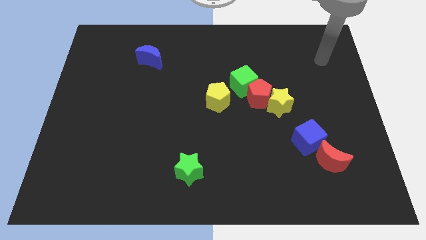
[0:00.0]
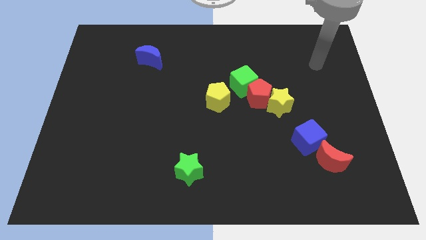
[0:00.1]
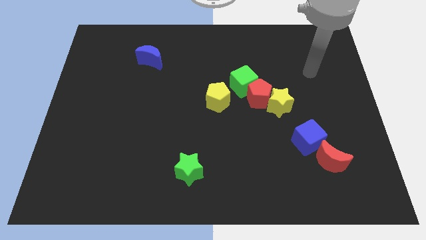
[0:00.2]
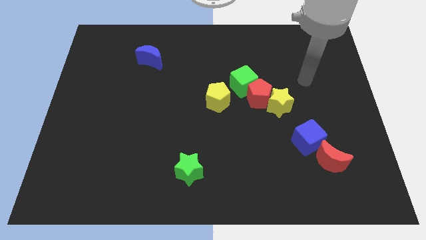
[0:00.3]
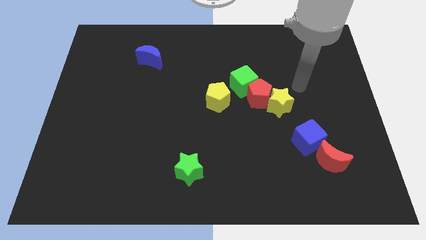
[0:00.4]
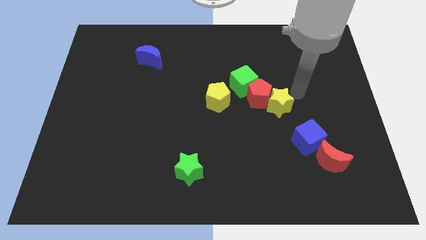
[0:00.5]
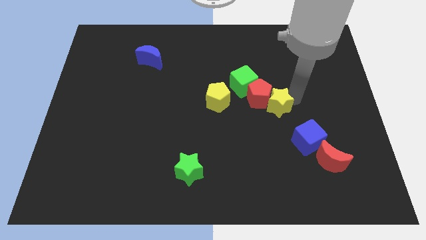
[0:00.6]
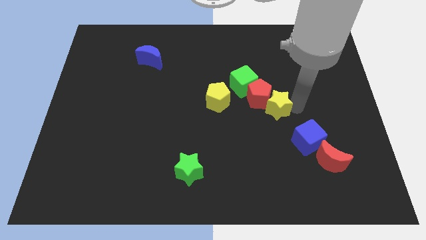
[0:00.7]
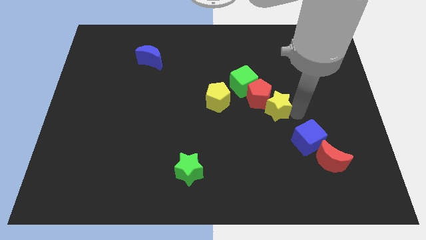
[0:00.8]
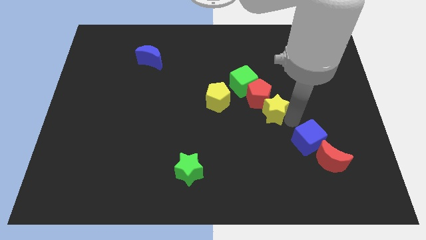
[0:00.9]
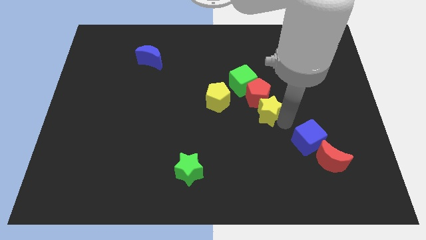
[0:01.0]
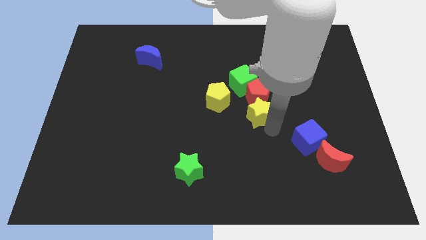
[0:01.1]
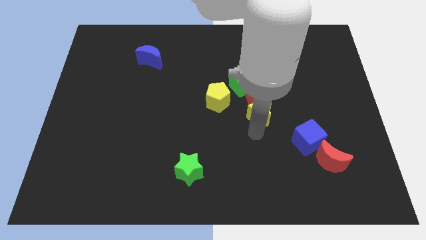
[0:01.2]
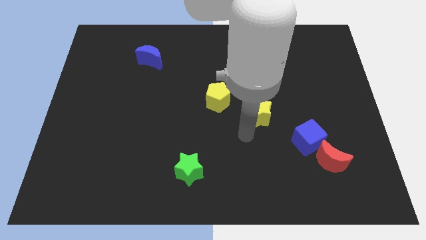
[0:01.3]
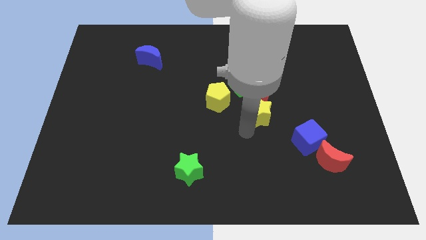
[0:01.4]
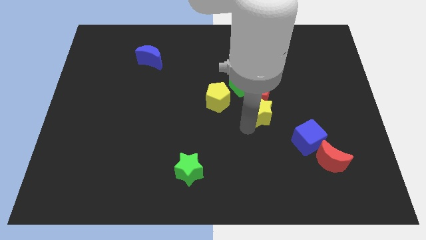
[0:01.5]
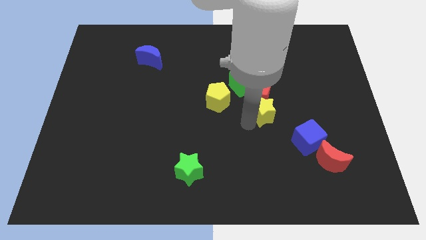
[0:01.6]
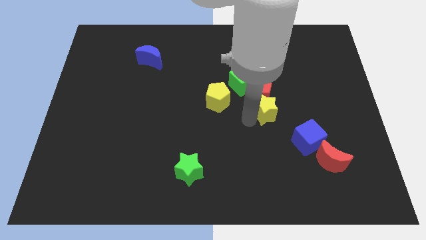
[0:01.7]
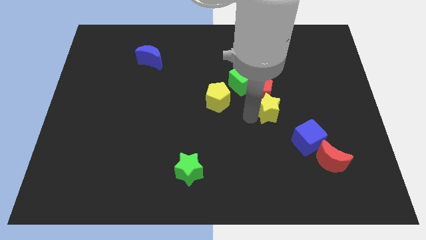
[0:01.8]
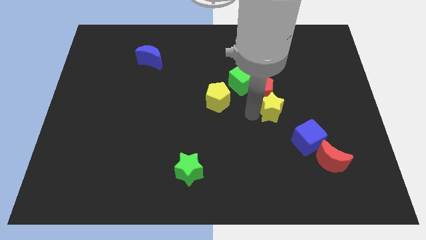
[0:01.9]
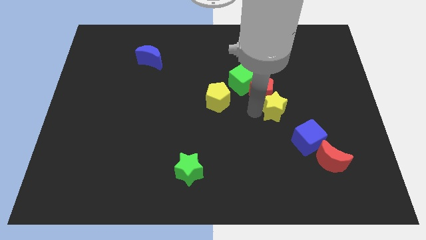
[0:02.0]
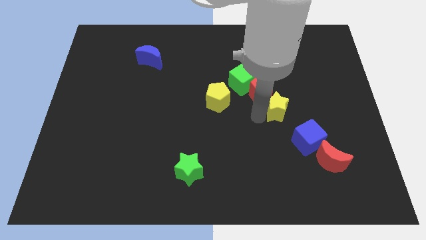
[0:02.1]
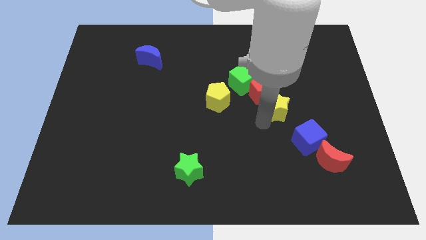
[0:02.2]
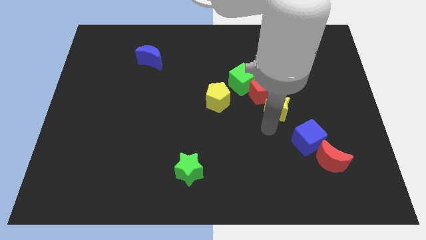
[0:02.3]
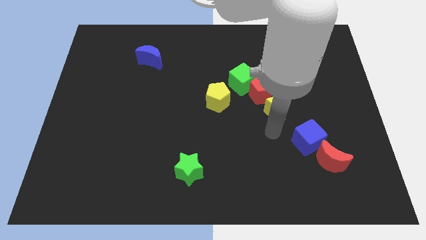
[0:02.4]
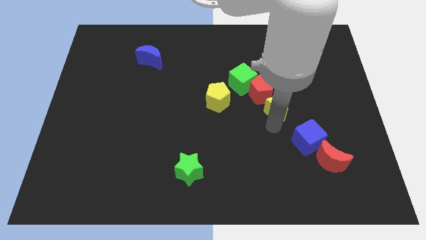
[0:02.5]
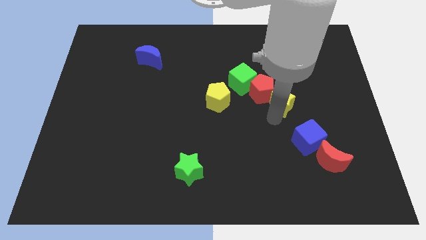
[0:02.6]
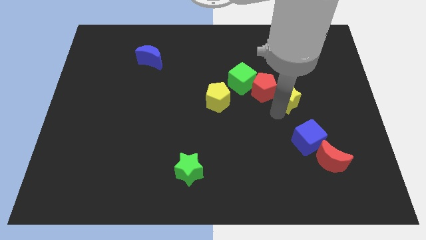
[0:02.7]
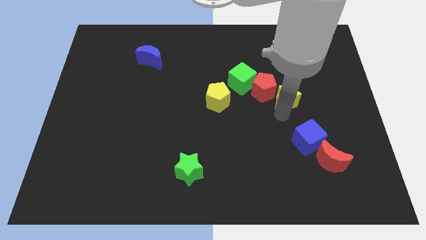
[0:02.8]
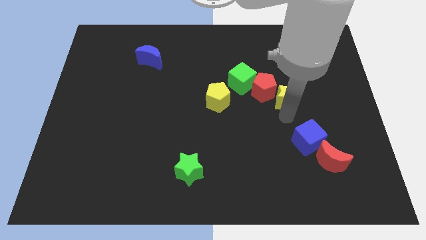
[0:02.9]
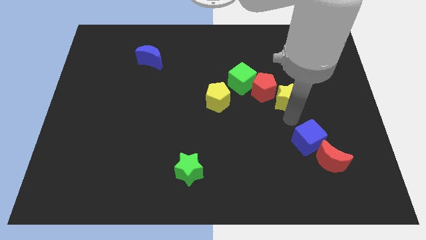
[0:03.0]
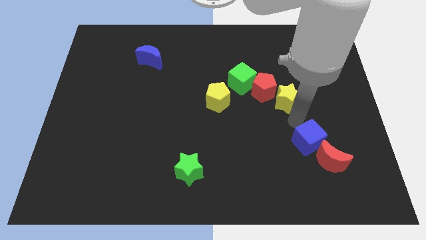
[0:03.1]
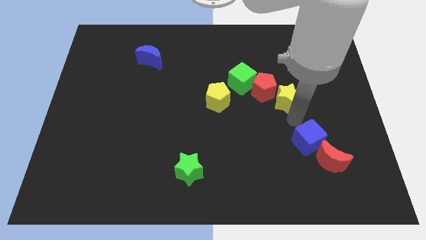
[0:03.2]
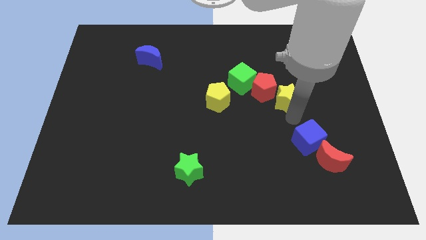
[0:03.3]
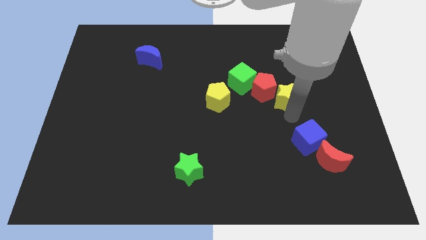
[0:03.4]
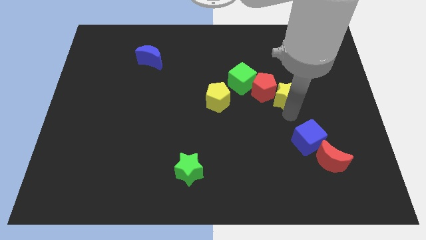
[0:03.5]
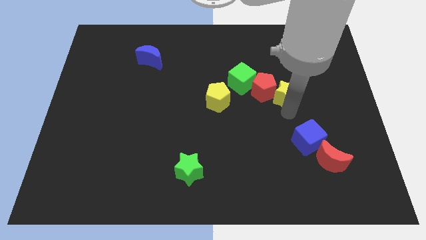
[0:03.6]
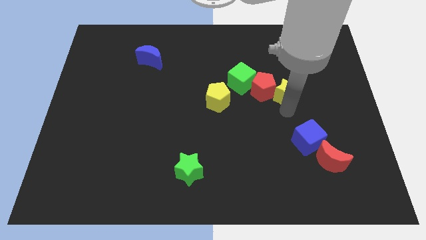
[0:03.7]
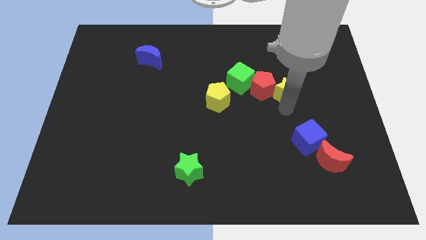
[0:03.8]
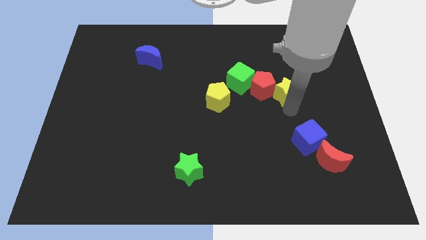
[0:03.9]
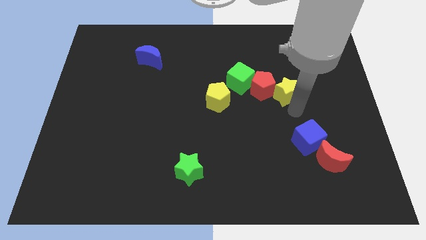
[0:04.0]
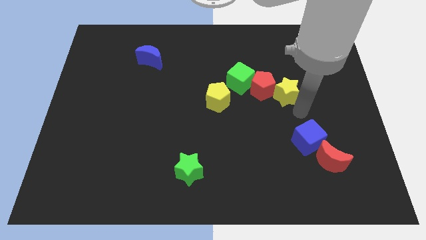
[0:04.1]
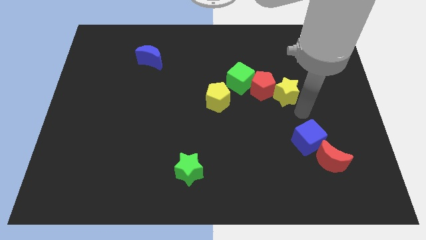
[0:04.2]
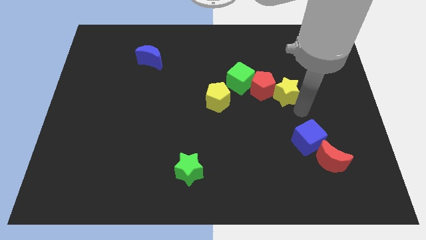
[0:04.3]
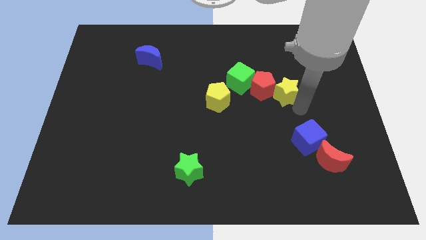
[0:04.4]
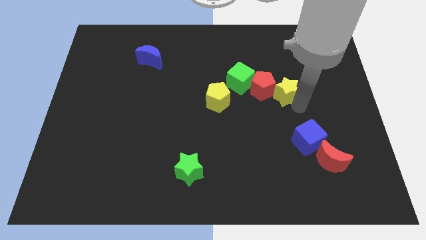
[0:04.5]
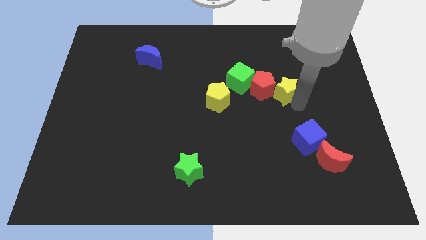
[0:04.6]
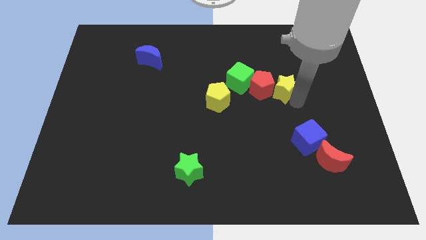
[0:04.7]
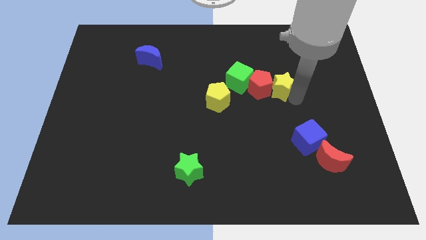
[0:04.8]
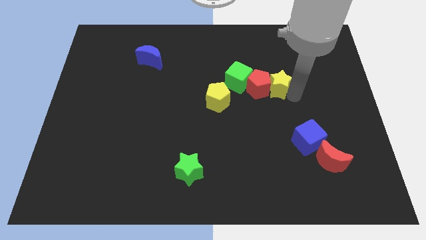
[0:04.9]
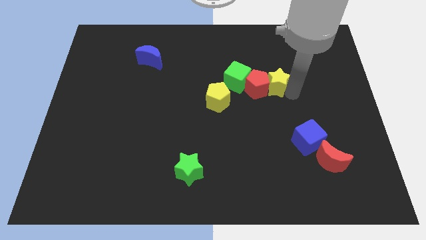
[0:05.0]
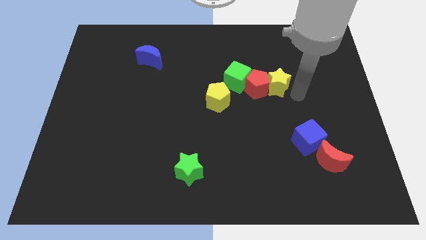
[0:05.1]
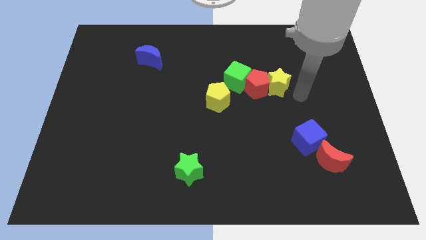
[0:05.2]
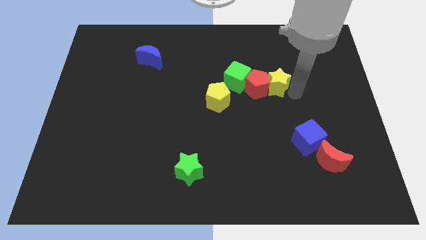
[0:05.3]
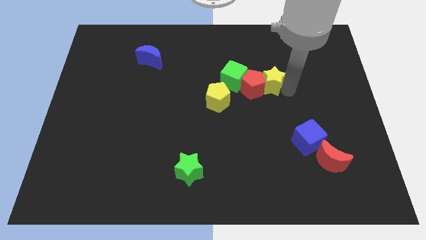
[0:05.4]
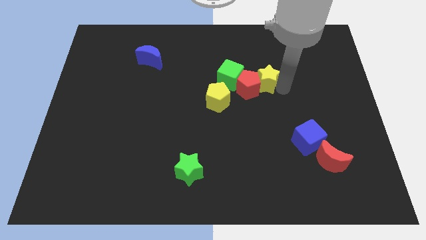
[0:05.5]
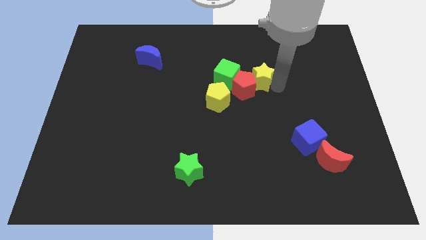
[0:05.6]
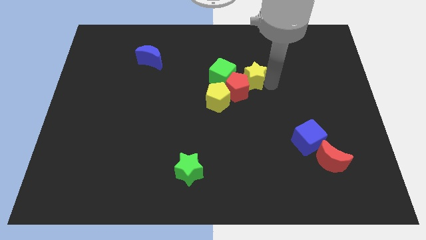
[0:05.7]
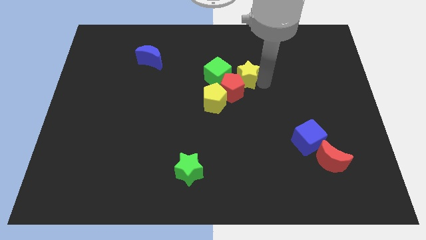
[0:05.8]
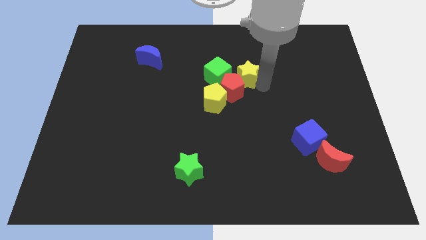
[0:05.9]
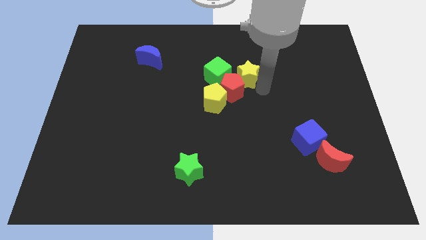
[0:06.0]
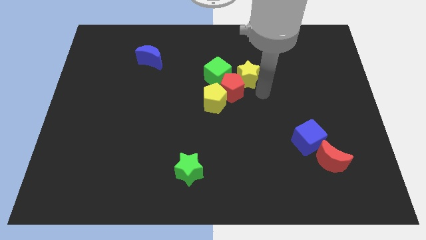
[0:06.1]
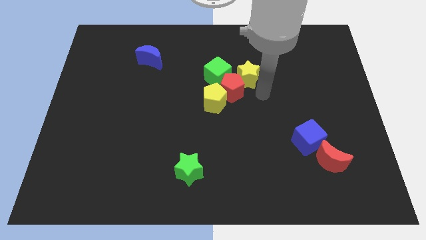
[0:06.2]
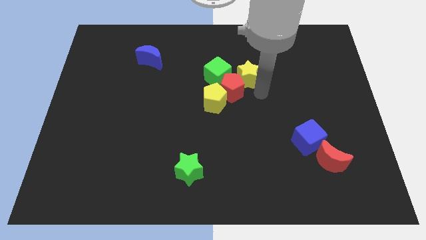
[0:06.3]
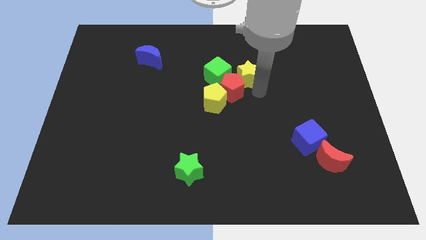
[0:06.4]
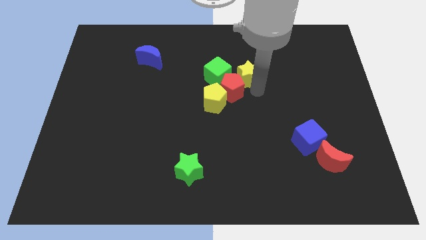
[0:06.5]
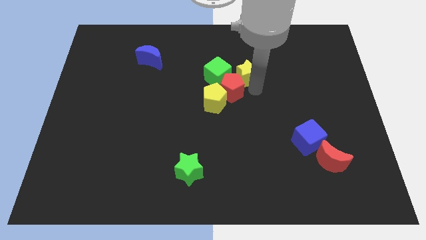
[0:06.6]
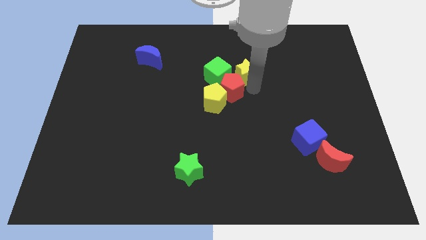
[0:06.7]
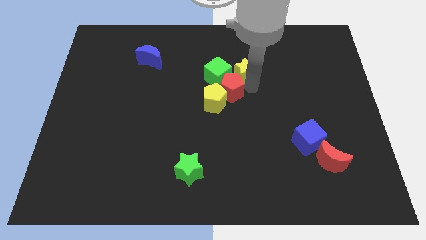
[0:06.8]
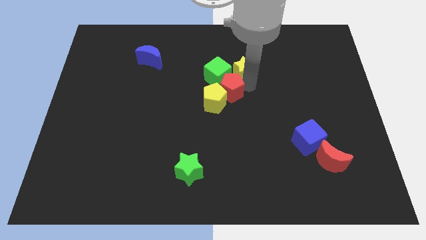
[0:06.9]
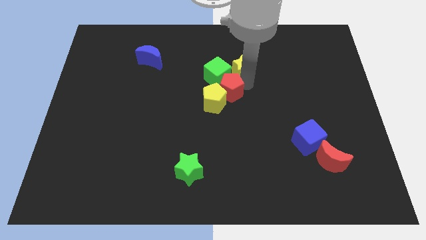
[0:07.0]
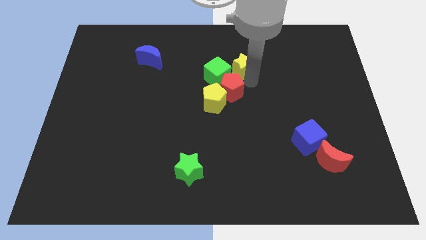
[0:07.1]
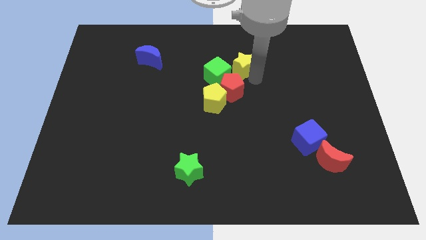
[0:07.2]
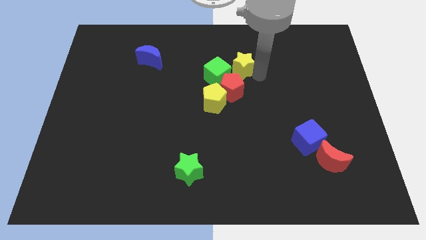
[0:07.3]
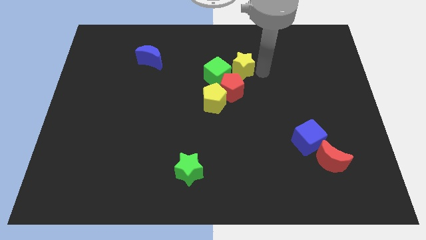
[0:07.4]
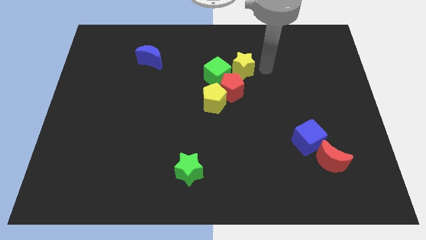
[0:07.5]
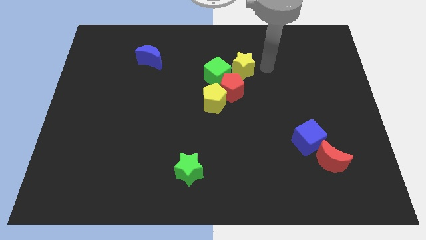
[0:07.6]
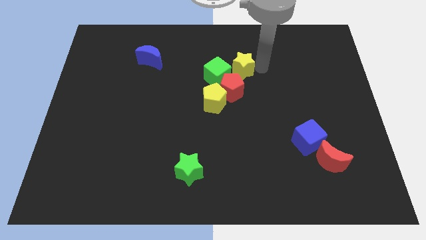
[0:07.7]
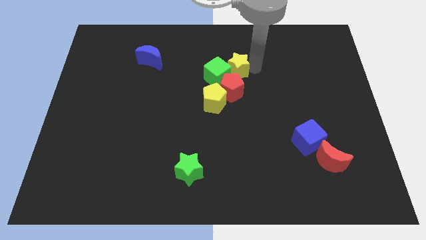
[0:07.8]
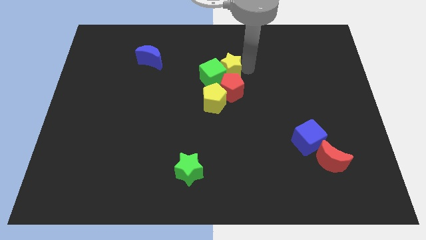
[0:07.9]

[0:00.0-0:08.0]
push the yellow star above the yellow pentagon
